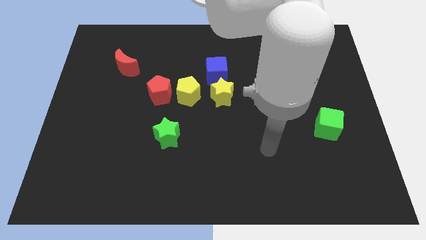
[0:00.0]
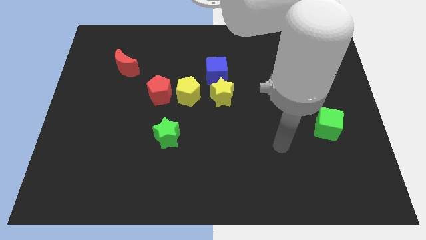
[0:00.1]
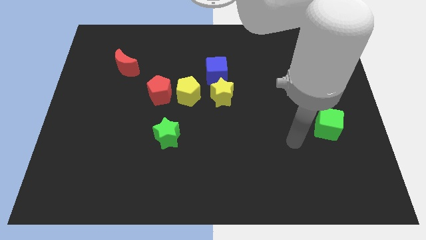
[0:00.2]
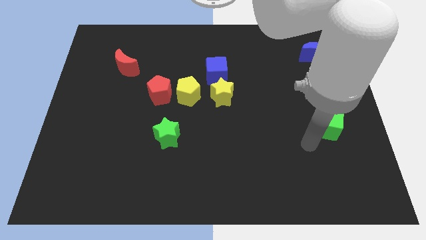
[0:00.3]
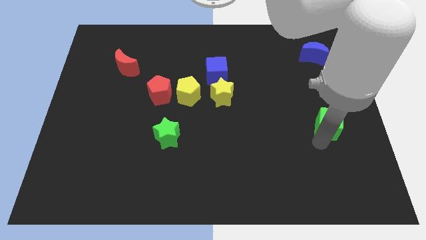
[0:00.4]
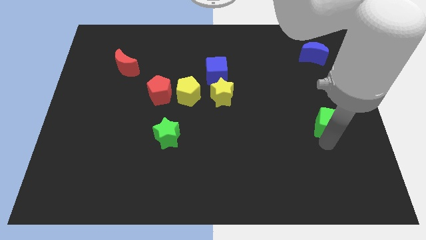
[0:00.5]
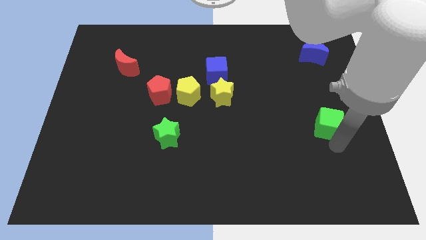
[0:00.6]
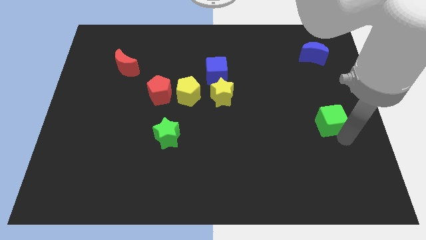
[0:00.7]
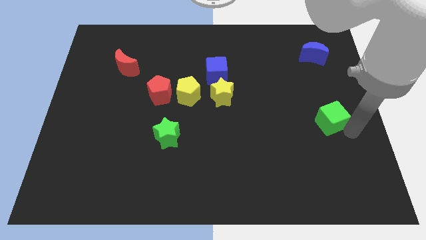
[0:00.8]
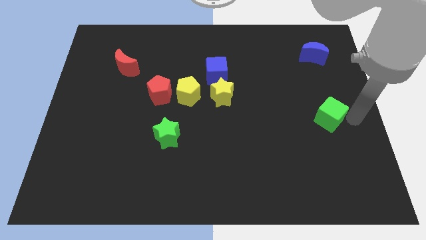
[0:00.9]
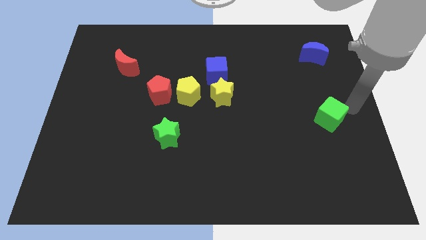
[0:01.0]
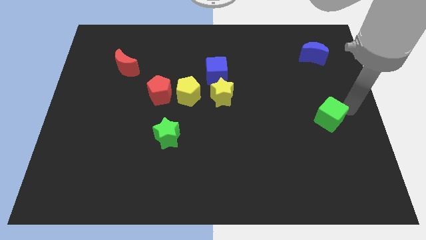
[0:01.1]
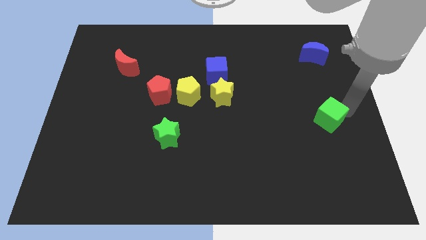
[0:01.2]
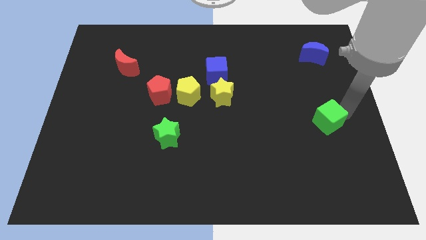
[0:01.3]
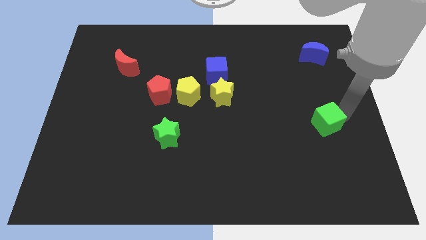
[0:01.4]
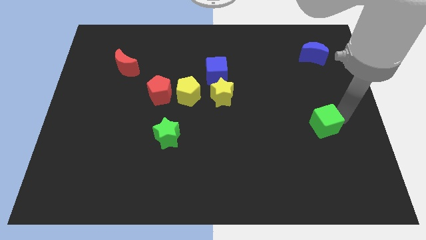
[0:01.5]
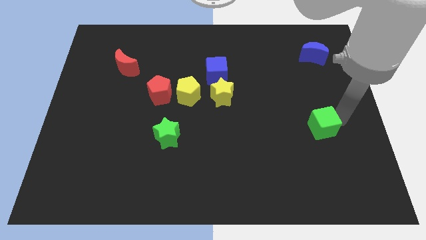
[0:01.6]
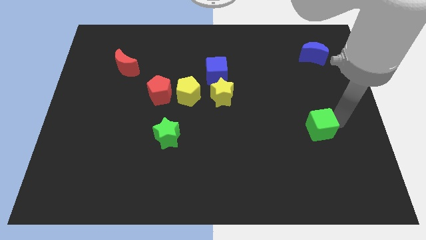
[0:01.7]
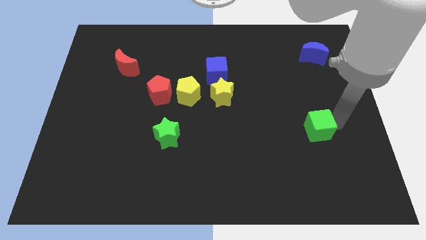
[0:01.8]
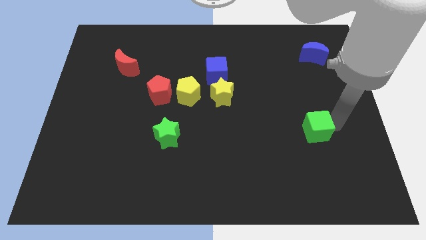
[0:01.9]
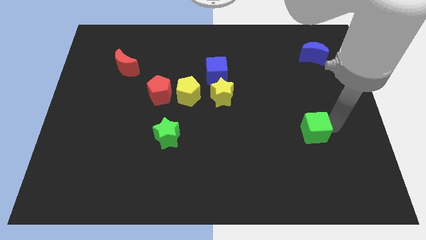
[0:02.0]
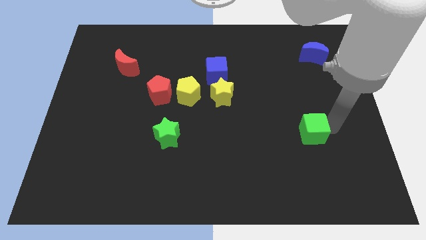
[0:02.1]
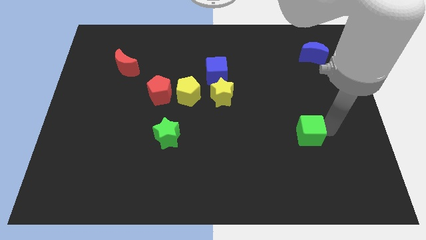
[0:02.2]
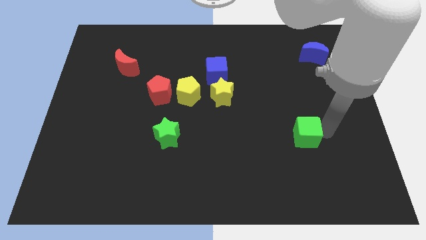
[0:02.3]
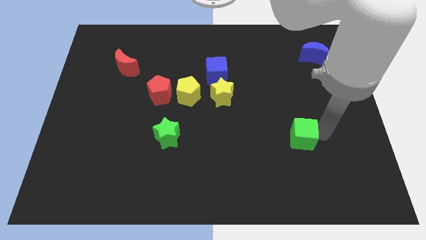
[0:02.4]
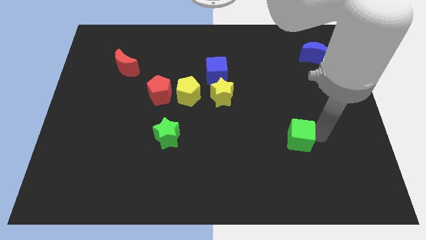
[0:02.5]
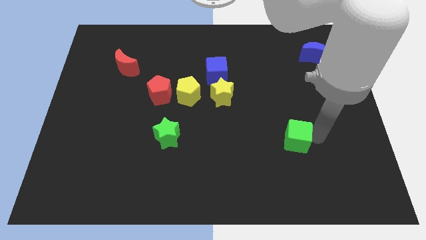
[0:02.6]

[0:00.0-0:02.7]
move the green cube somewhat to the left

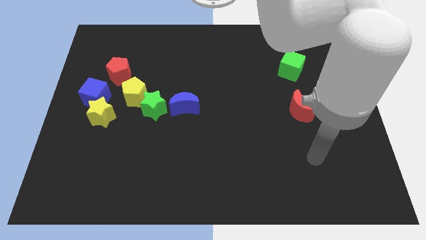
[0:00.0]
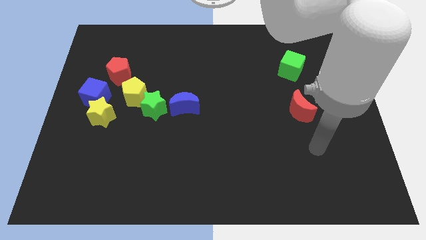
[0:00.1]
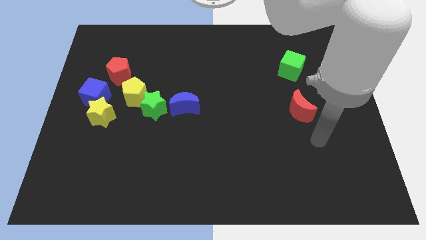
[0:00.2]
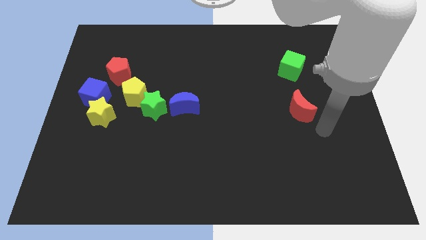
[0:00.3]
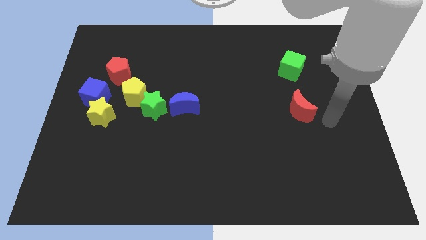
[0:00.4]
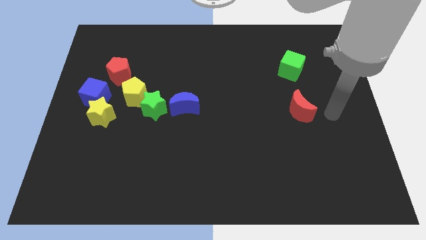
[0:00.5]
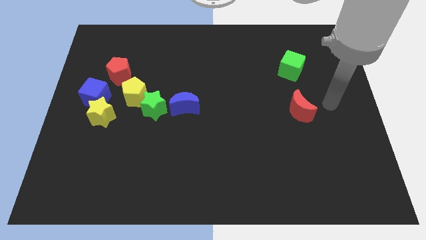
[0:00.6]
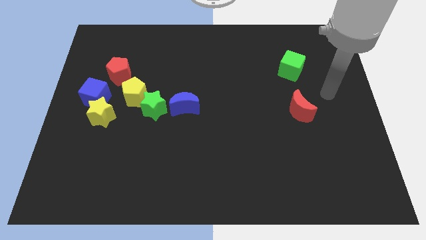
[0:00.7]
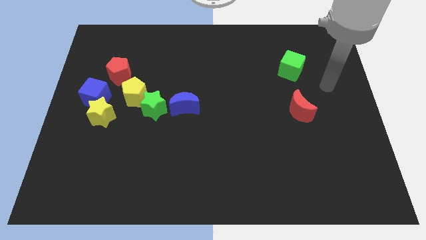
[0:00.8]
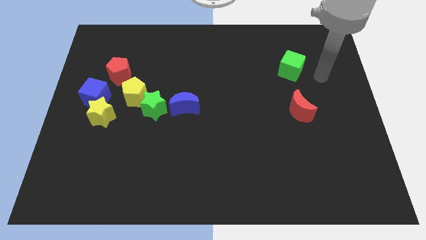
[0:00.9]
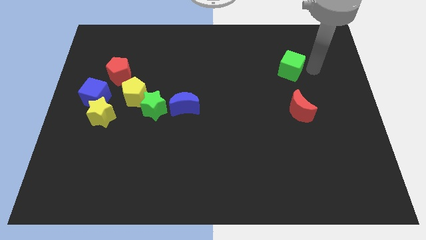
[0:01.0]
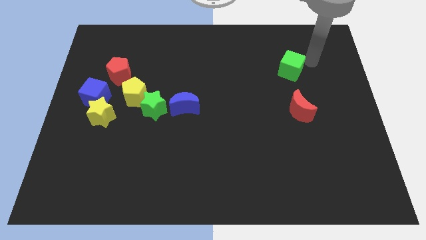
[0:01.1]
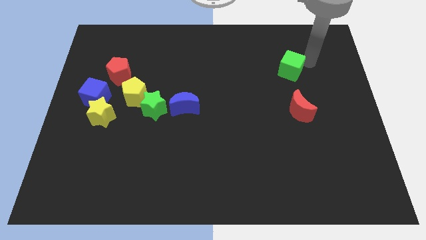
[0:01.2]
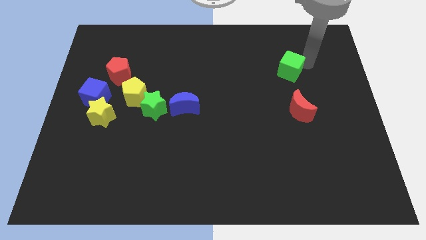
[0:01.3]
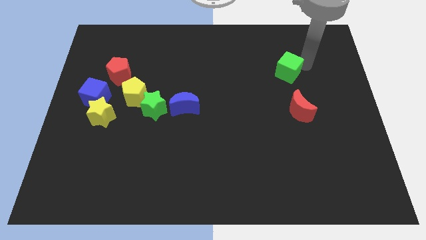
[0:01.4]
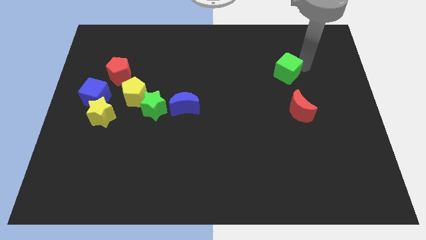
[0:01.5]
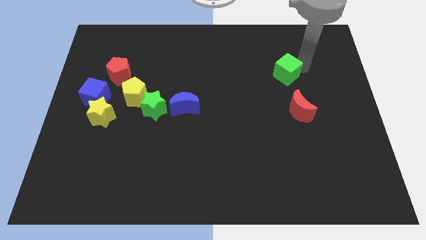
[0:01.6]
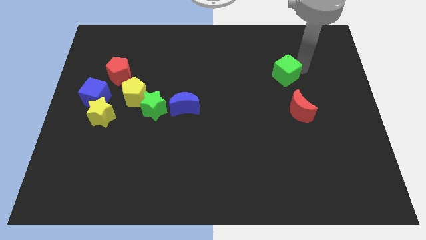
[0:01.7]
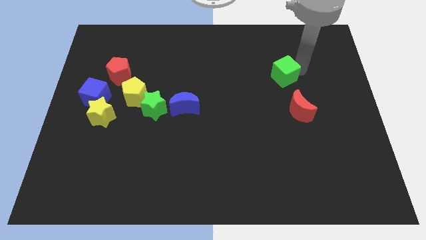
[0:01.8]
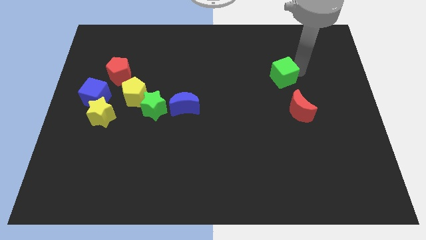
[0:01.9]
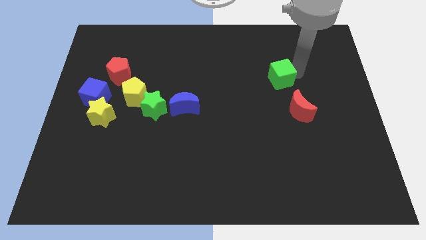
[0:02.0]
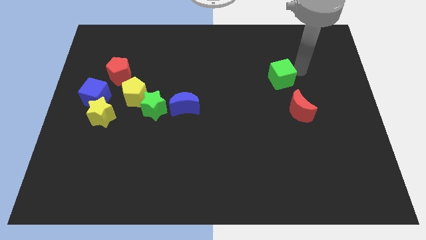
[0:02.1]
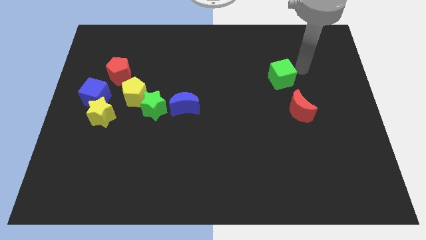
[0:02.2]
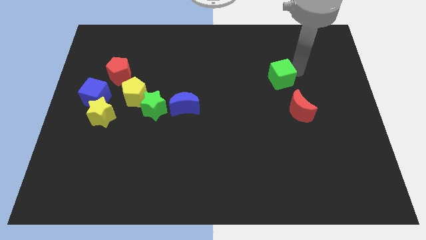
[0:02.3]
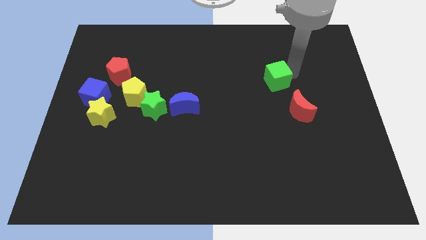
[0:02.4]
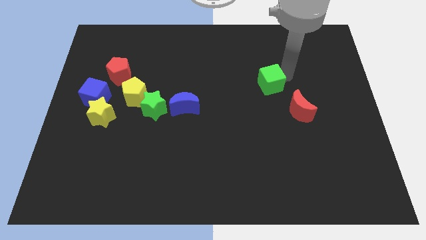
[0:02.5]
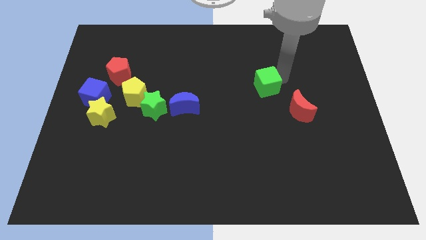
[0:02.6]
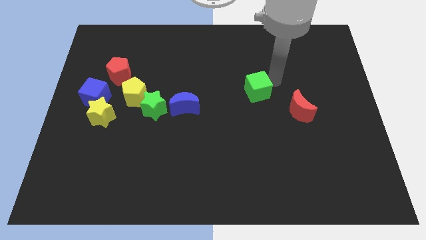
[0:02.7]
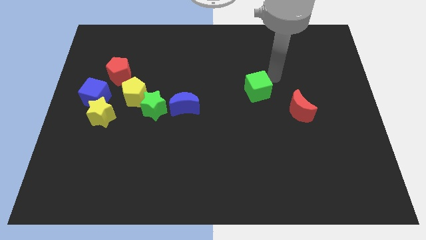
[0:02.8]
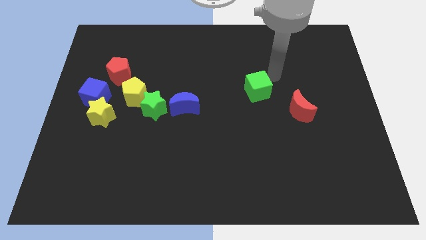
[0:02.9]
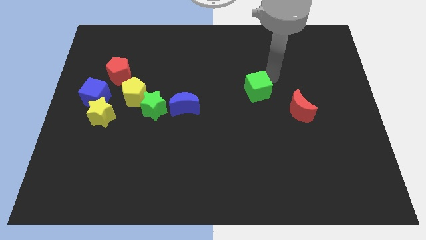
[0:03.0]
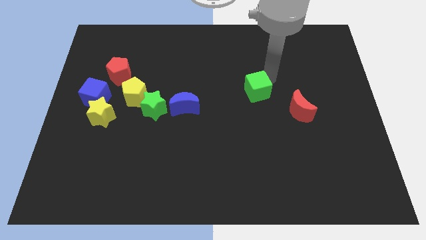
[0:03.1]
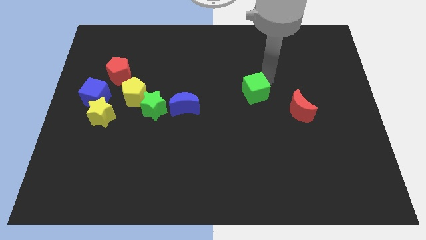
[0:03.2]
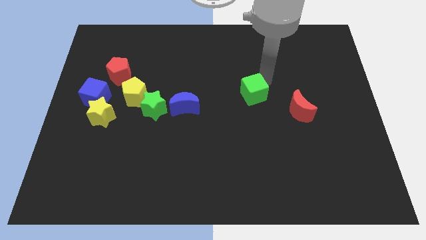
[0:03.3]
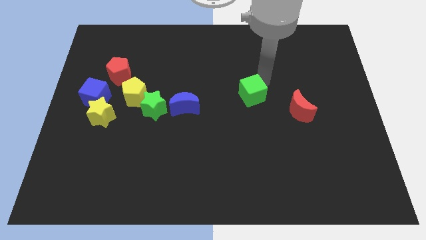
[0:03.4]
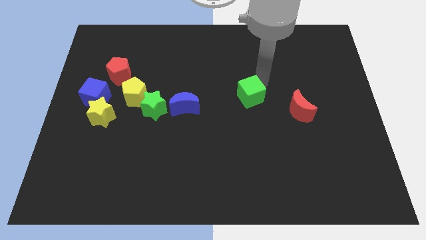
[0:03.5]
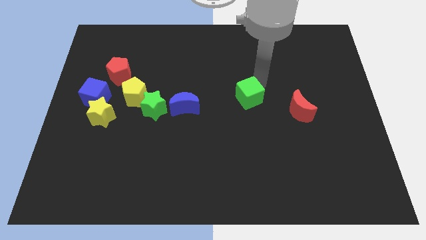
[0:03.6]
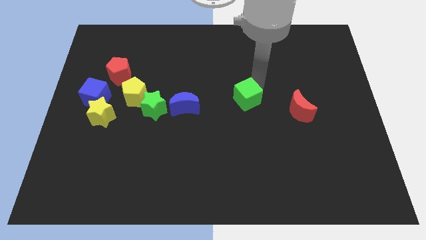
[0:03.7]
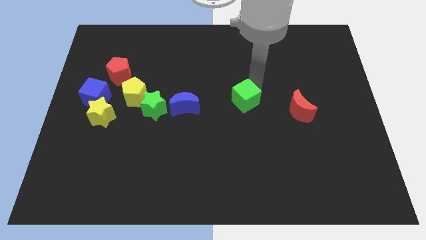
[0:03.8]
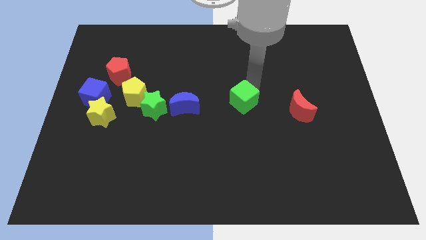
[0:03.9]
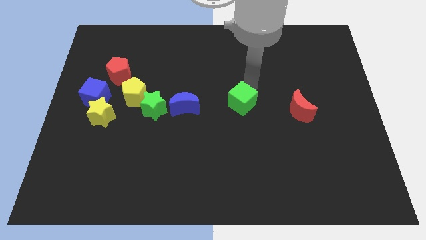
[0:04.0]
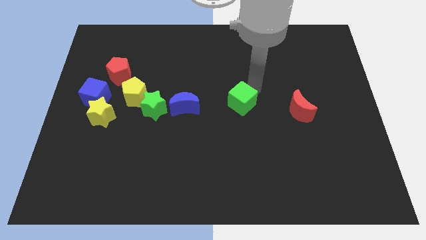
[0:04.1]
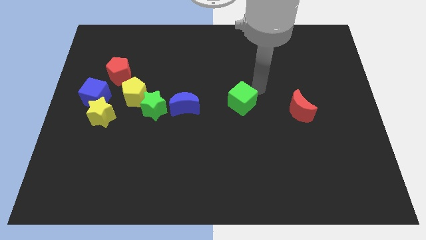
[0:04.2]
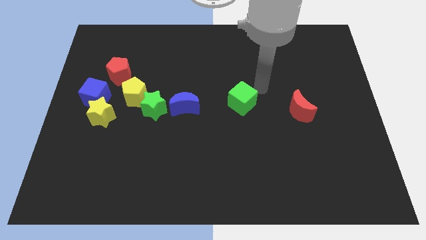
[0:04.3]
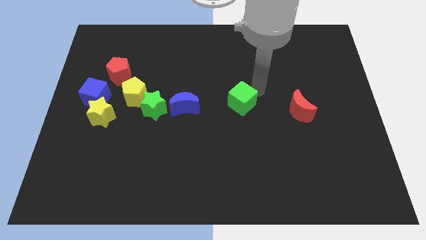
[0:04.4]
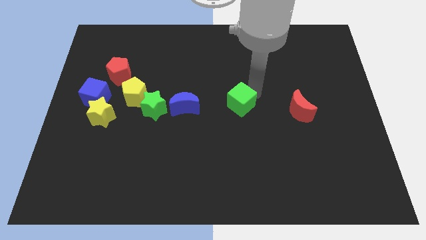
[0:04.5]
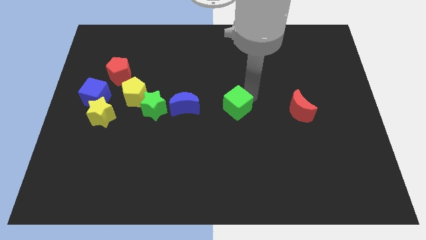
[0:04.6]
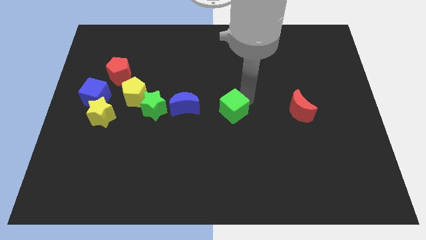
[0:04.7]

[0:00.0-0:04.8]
push the green cube diagonally down and to the left
